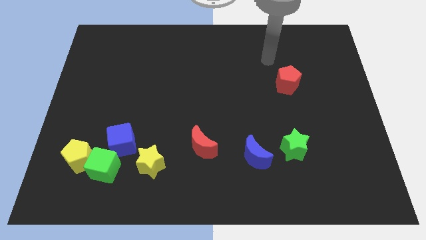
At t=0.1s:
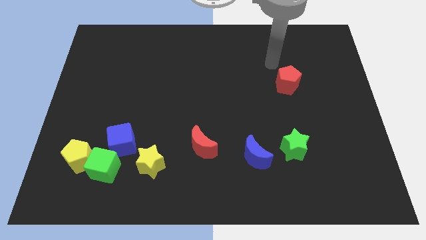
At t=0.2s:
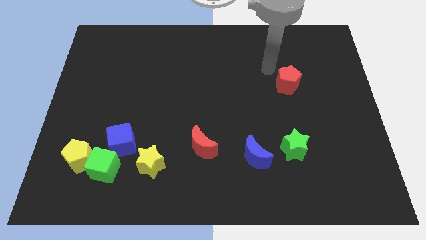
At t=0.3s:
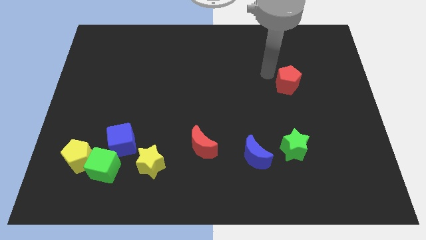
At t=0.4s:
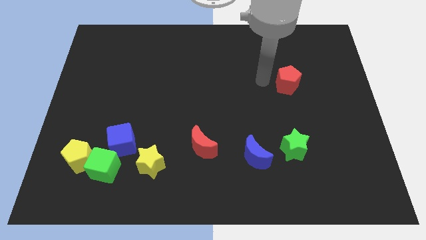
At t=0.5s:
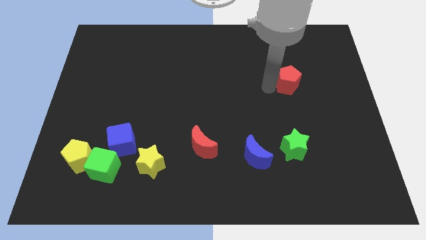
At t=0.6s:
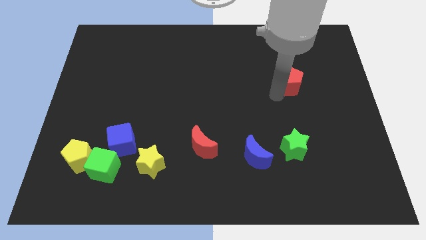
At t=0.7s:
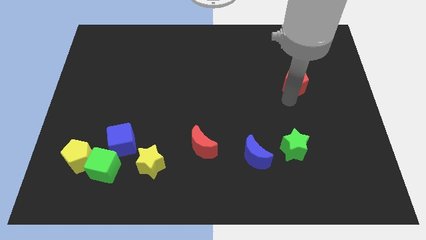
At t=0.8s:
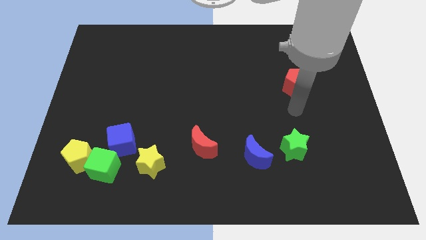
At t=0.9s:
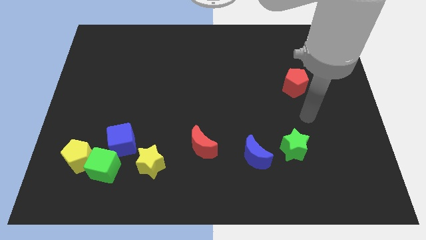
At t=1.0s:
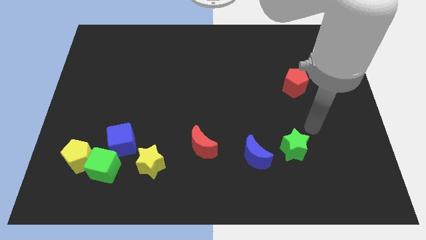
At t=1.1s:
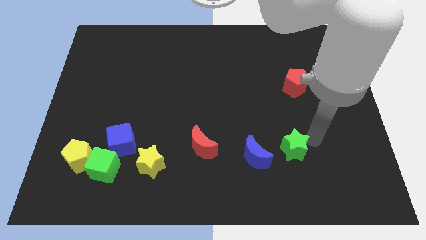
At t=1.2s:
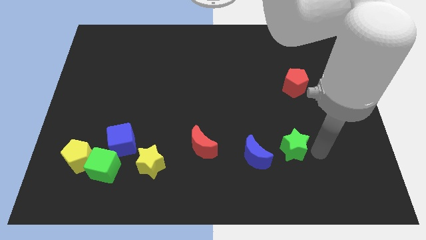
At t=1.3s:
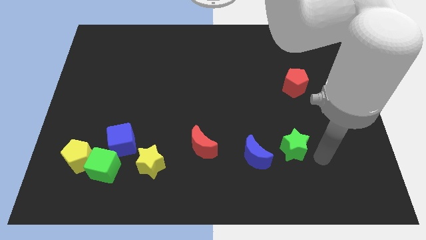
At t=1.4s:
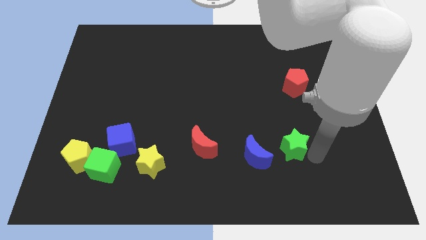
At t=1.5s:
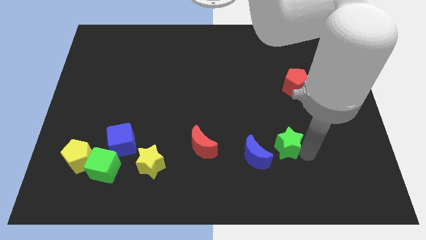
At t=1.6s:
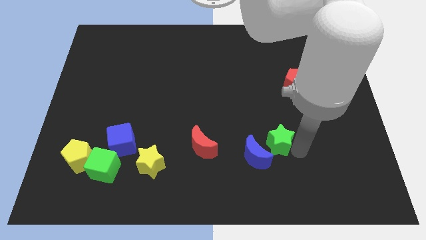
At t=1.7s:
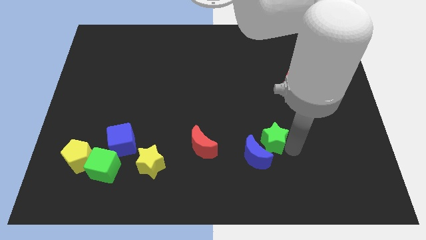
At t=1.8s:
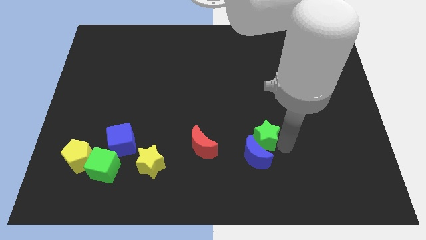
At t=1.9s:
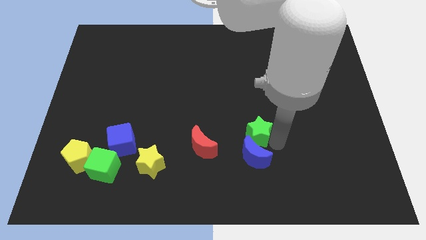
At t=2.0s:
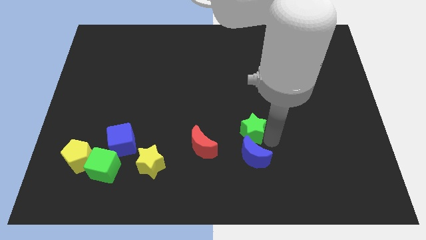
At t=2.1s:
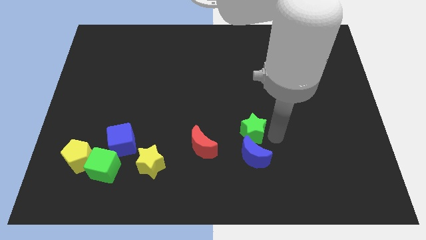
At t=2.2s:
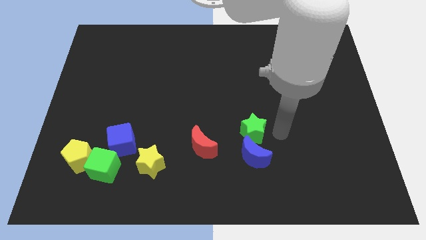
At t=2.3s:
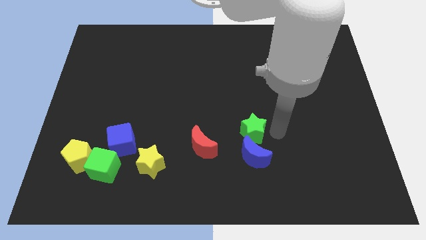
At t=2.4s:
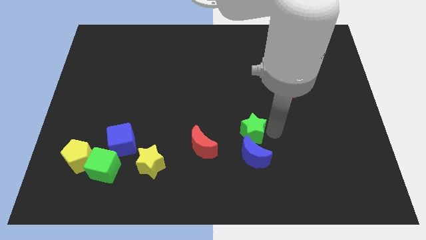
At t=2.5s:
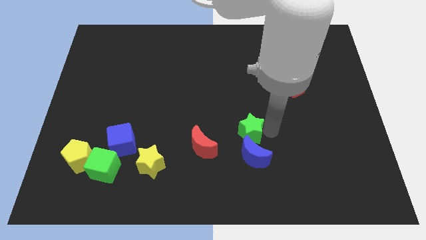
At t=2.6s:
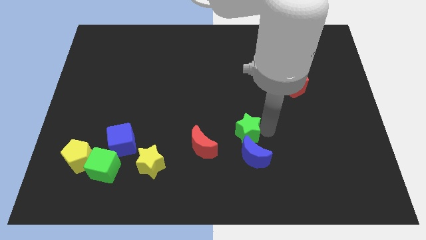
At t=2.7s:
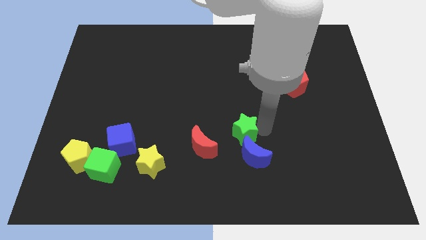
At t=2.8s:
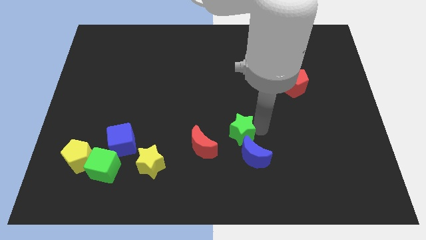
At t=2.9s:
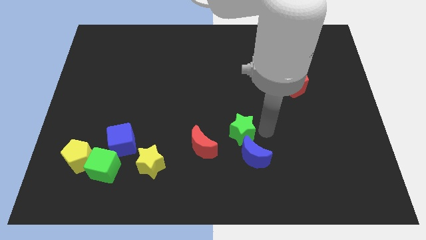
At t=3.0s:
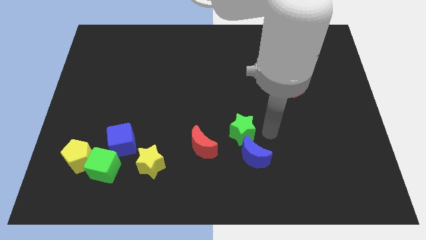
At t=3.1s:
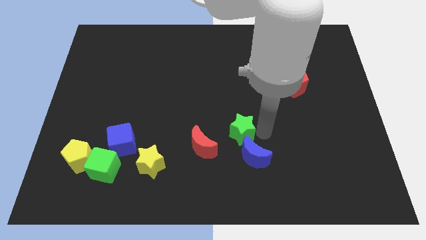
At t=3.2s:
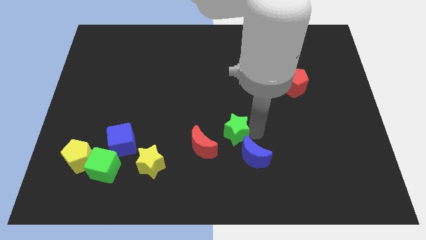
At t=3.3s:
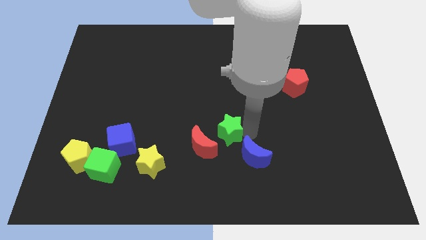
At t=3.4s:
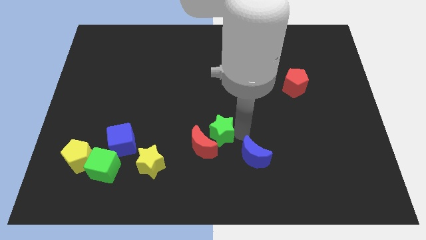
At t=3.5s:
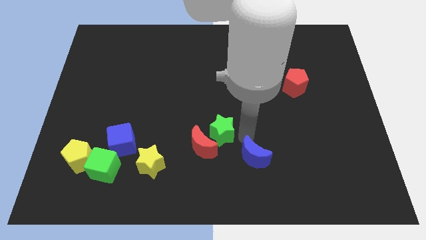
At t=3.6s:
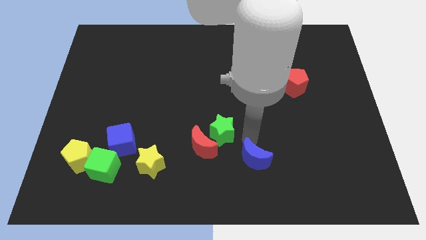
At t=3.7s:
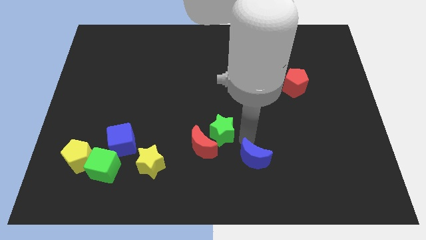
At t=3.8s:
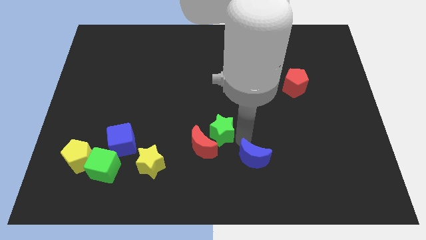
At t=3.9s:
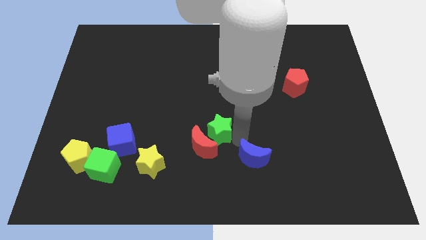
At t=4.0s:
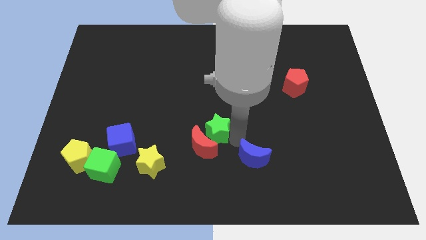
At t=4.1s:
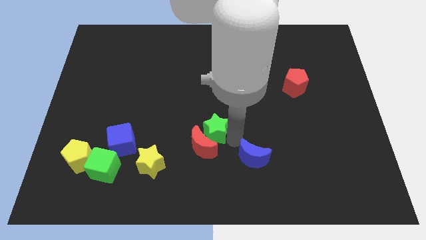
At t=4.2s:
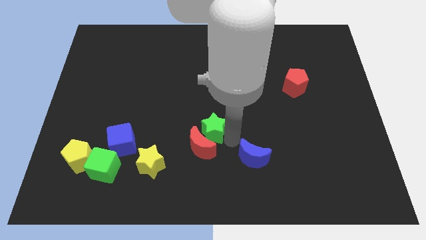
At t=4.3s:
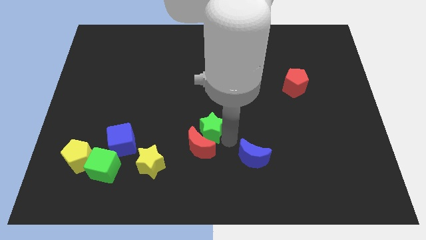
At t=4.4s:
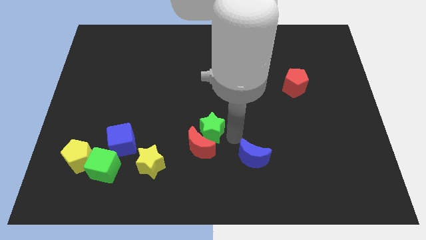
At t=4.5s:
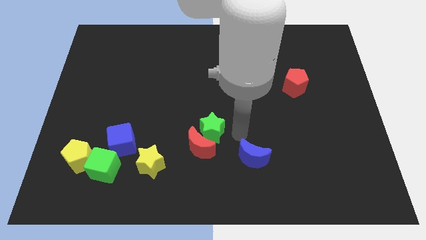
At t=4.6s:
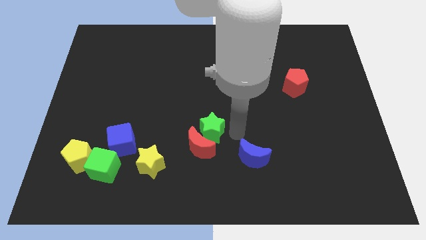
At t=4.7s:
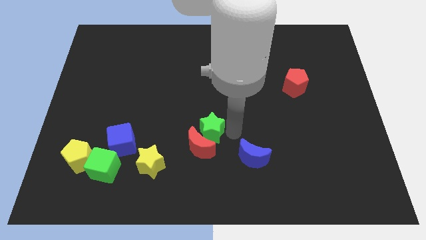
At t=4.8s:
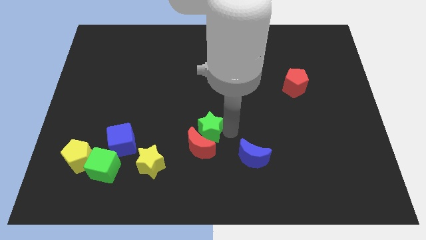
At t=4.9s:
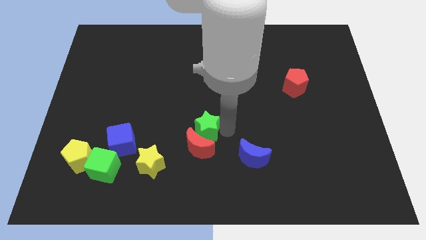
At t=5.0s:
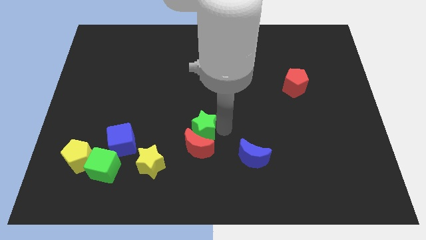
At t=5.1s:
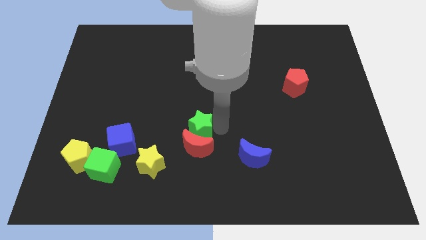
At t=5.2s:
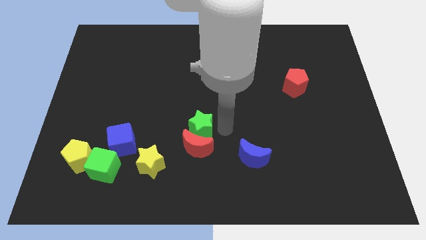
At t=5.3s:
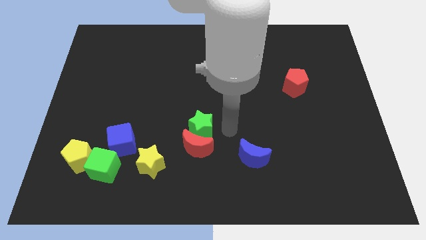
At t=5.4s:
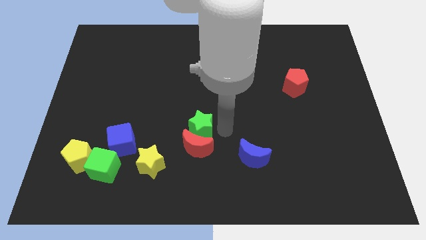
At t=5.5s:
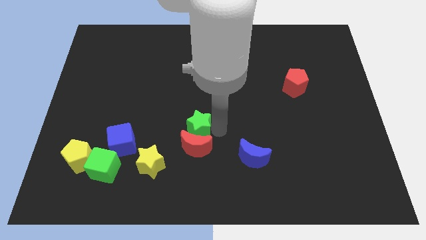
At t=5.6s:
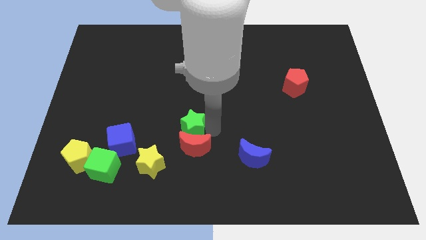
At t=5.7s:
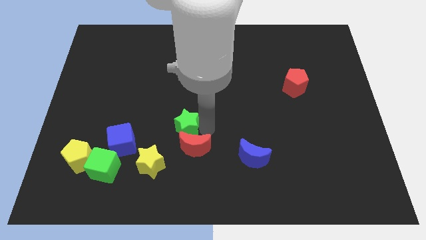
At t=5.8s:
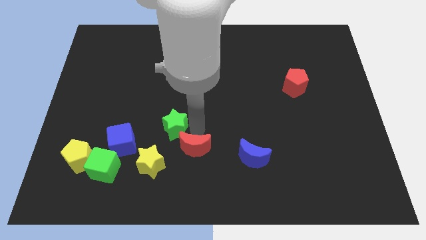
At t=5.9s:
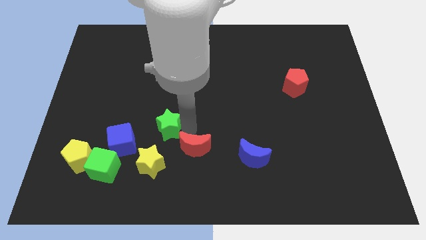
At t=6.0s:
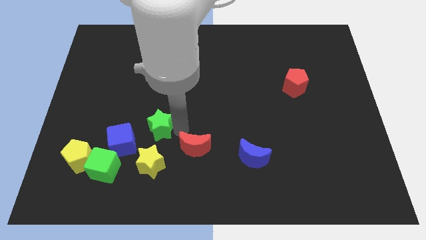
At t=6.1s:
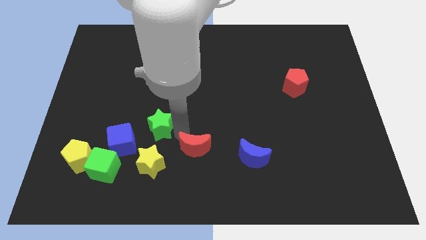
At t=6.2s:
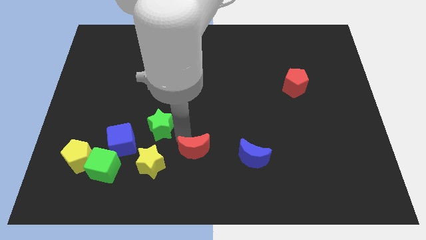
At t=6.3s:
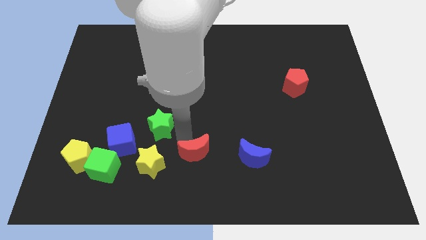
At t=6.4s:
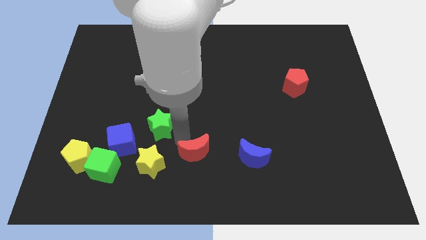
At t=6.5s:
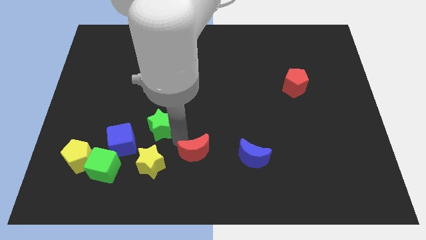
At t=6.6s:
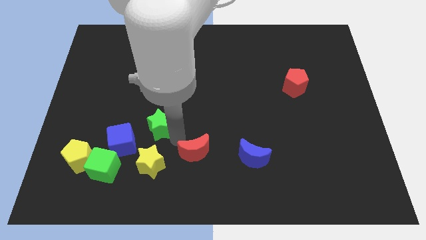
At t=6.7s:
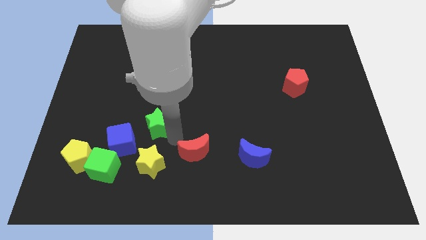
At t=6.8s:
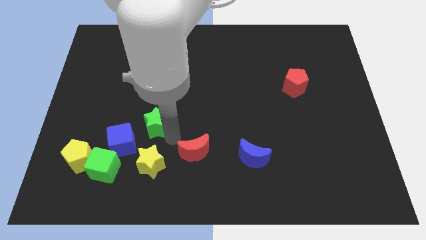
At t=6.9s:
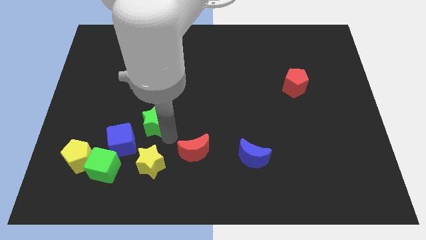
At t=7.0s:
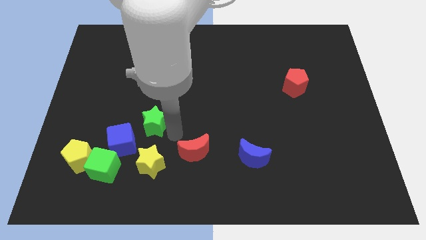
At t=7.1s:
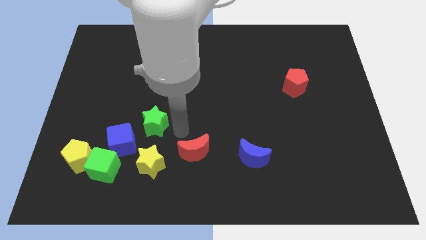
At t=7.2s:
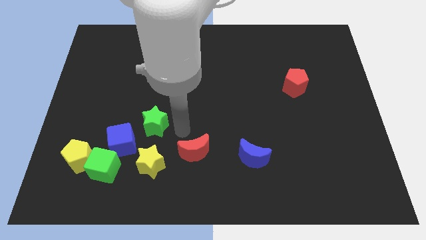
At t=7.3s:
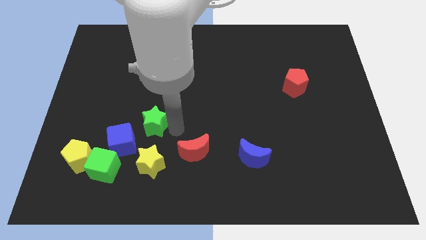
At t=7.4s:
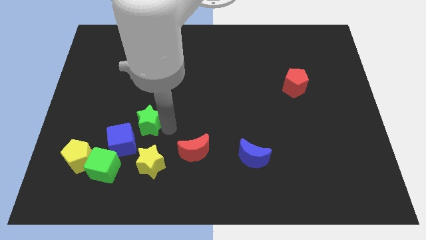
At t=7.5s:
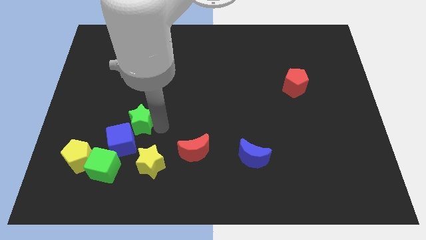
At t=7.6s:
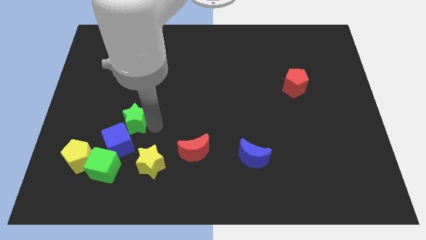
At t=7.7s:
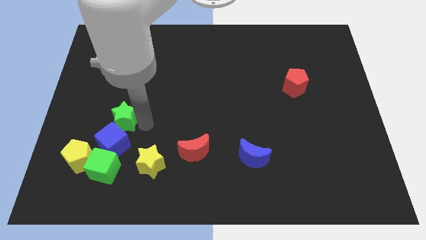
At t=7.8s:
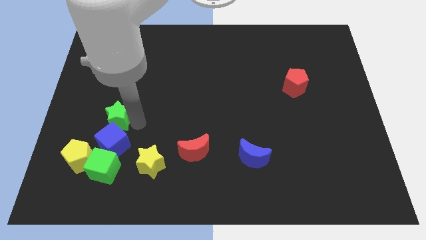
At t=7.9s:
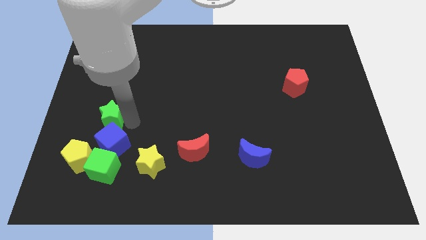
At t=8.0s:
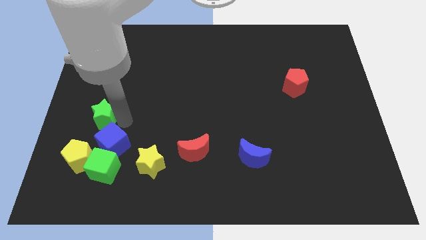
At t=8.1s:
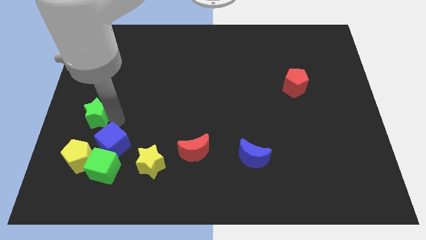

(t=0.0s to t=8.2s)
move the green star to the center left
